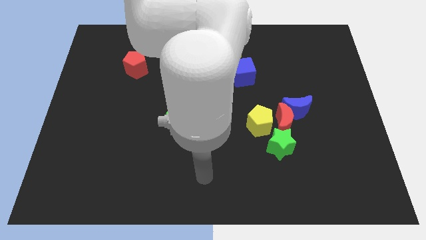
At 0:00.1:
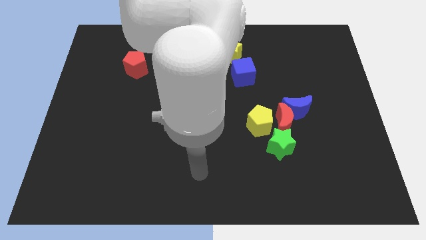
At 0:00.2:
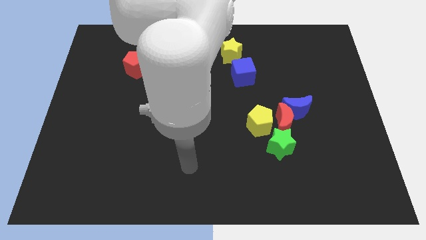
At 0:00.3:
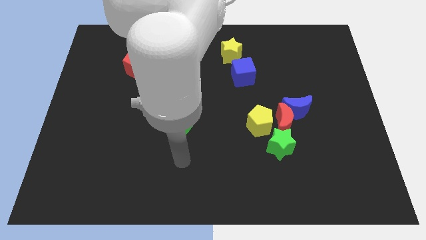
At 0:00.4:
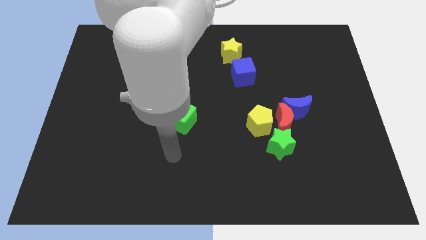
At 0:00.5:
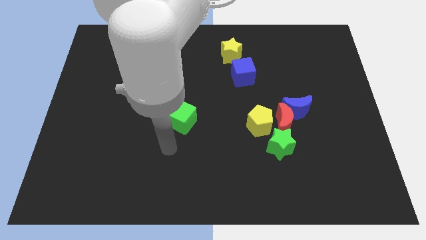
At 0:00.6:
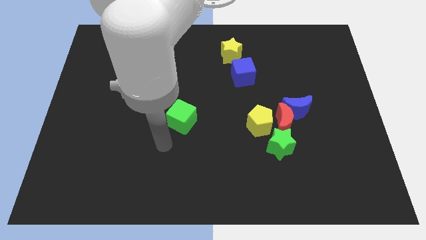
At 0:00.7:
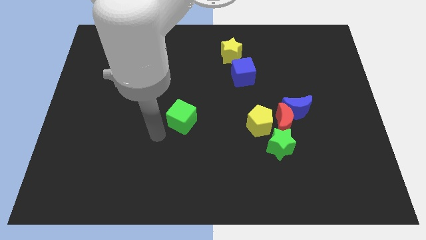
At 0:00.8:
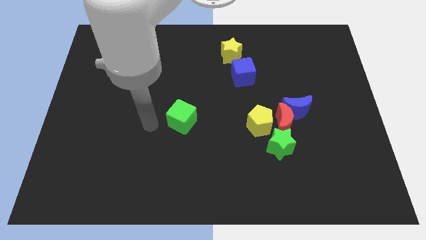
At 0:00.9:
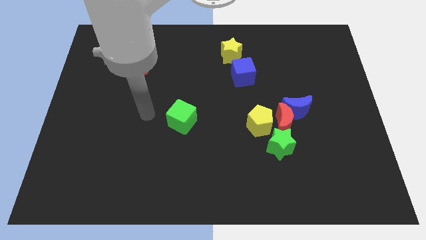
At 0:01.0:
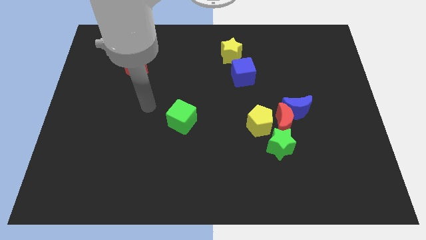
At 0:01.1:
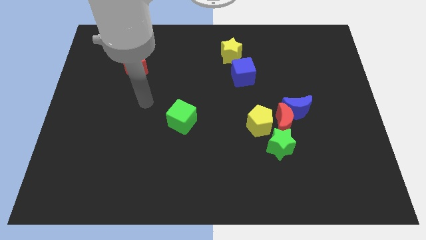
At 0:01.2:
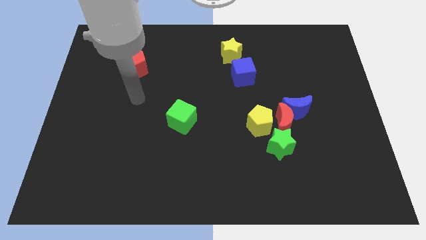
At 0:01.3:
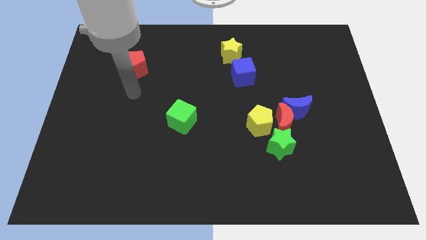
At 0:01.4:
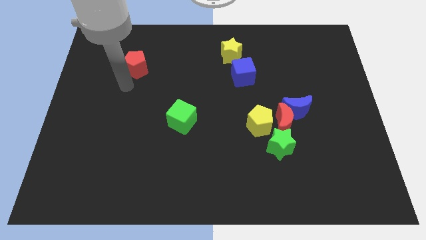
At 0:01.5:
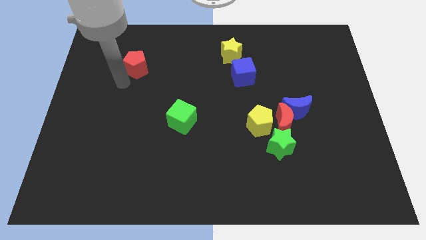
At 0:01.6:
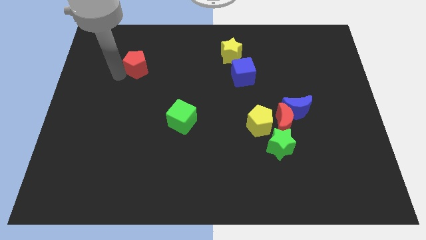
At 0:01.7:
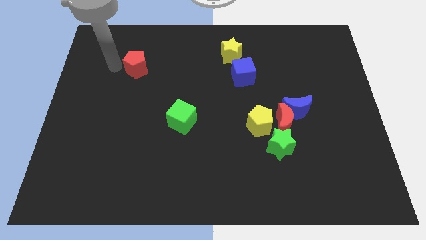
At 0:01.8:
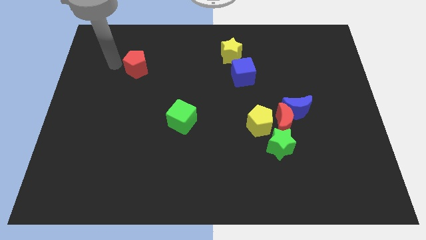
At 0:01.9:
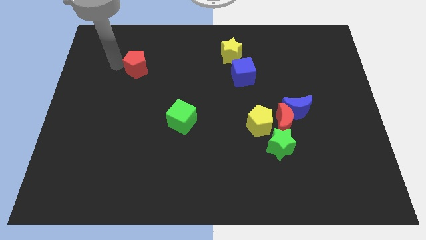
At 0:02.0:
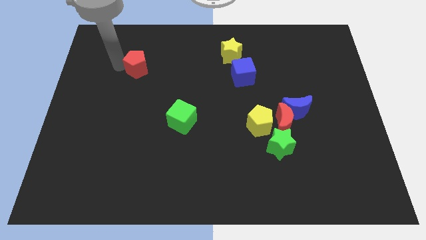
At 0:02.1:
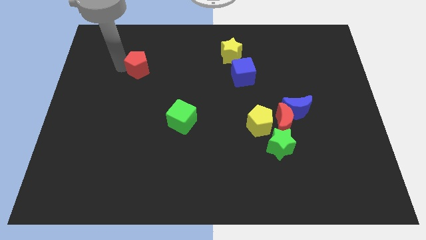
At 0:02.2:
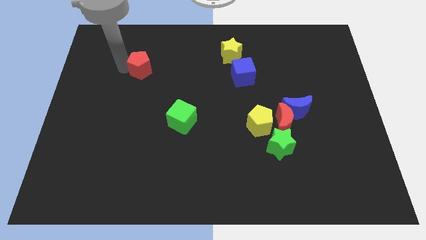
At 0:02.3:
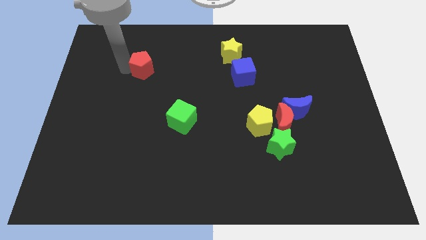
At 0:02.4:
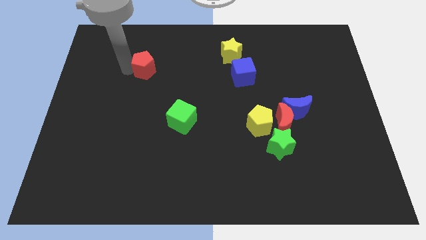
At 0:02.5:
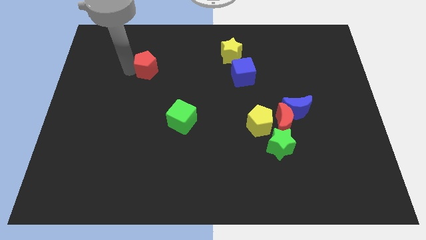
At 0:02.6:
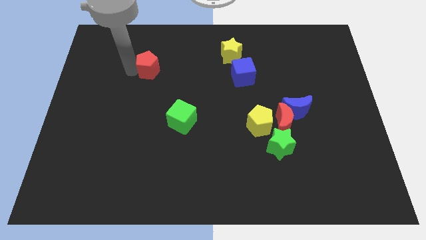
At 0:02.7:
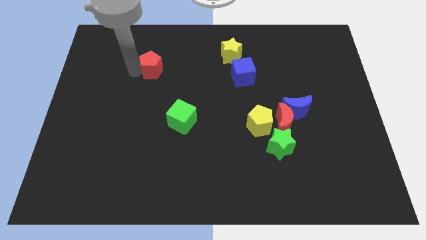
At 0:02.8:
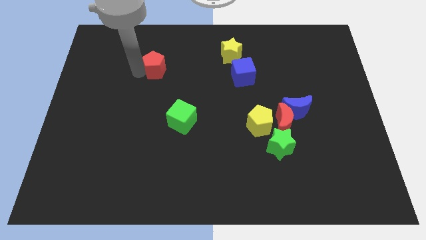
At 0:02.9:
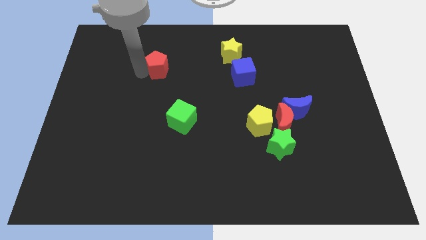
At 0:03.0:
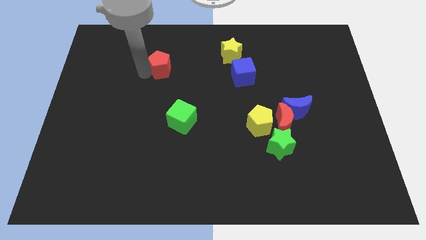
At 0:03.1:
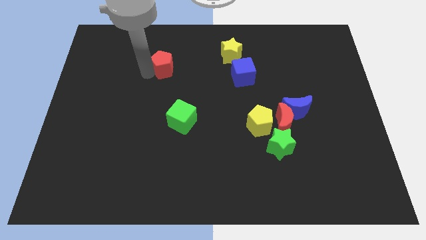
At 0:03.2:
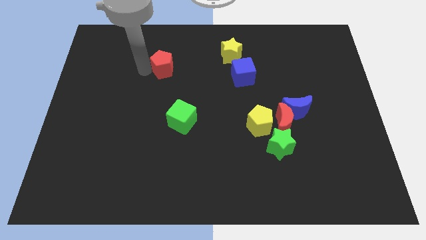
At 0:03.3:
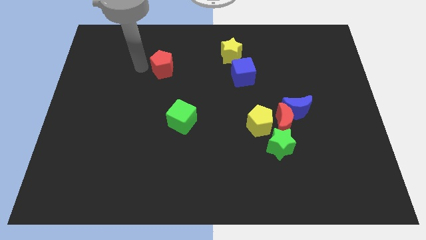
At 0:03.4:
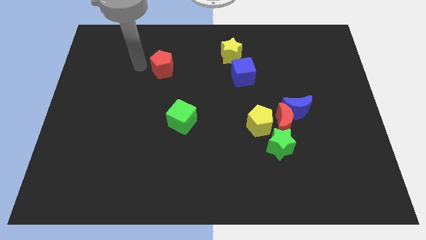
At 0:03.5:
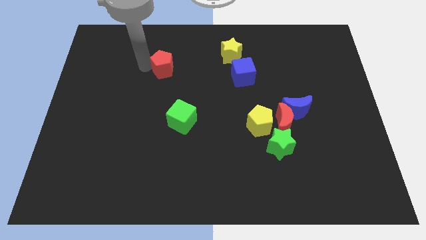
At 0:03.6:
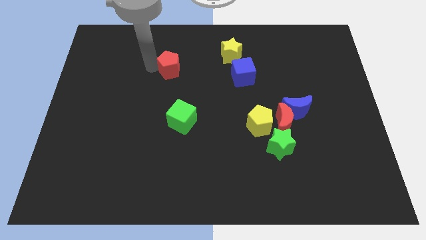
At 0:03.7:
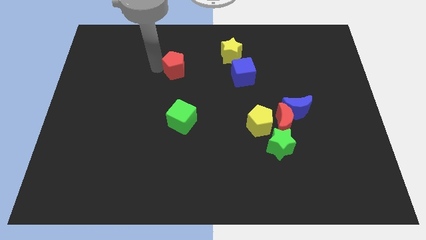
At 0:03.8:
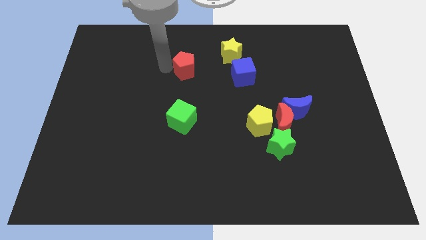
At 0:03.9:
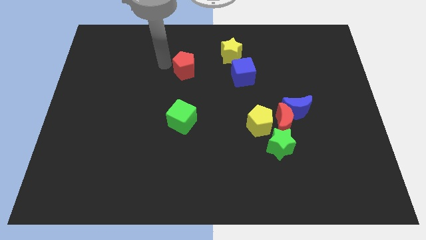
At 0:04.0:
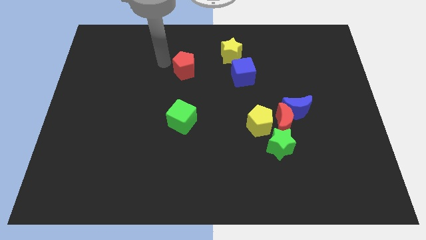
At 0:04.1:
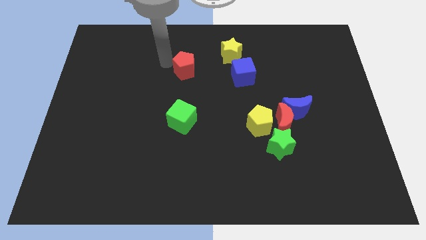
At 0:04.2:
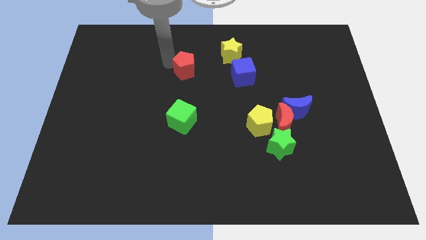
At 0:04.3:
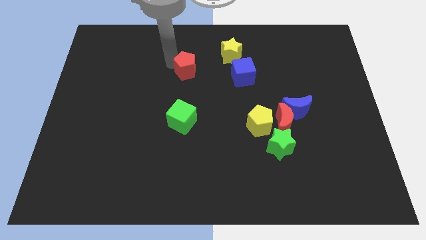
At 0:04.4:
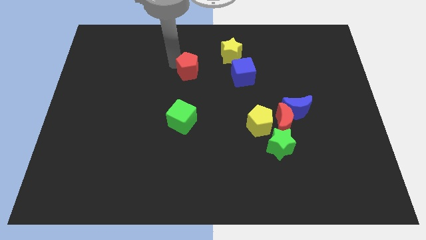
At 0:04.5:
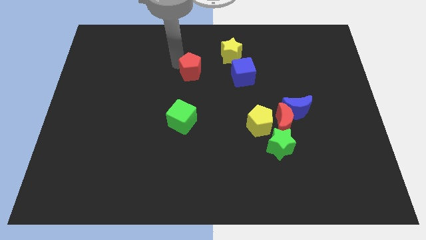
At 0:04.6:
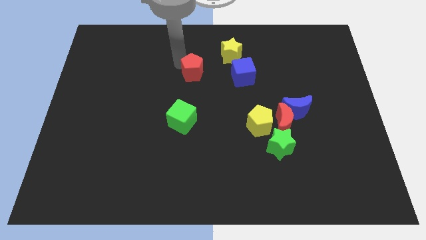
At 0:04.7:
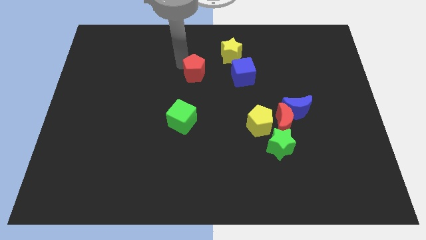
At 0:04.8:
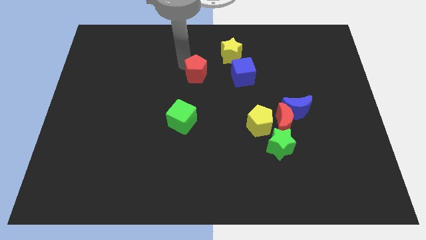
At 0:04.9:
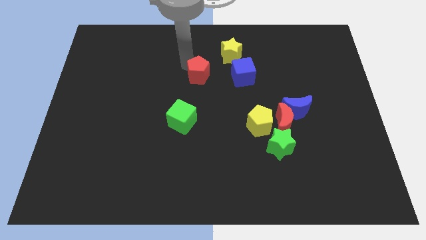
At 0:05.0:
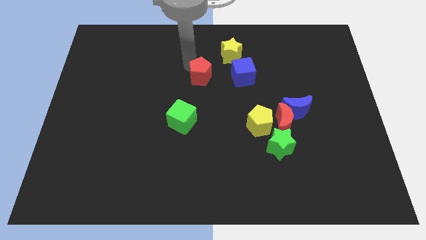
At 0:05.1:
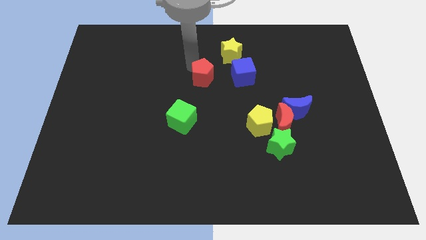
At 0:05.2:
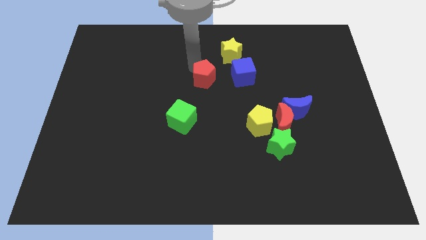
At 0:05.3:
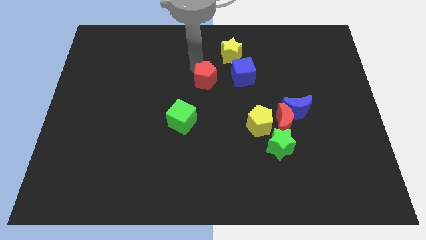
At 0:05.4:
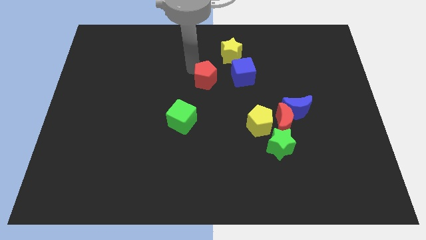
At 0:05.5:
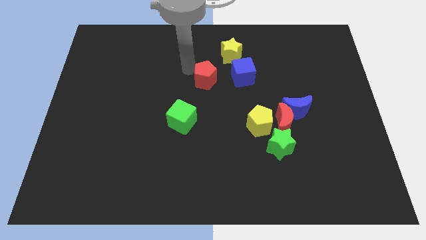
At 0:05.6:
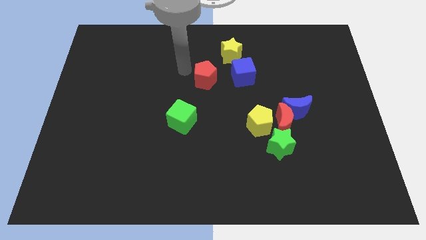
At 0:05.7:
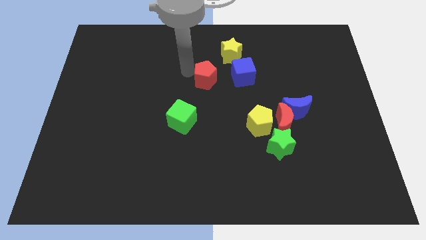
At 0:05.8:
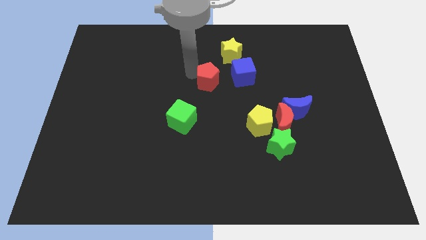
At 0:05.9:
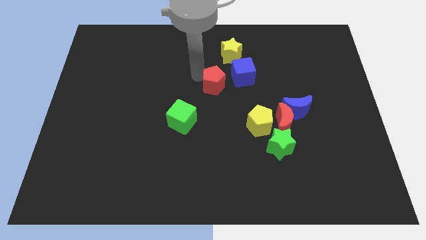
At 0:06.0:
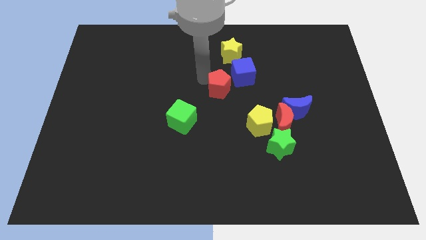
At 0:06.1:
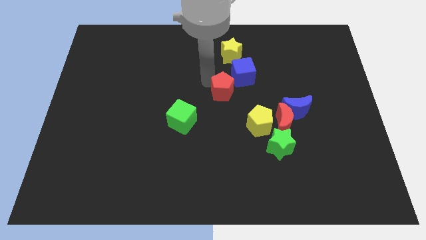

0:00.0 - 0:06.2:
move the red pentagon right

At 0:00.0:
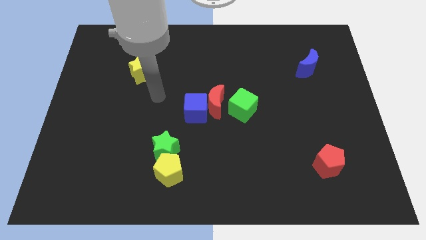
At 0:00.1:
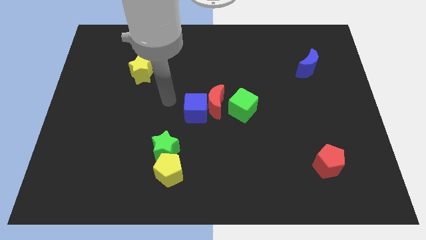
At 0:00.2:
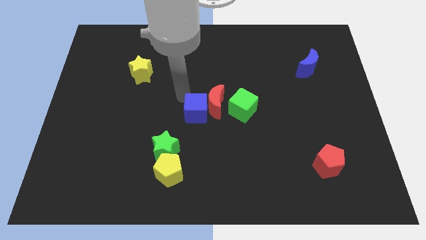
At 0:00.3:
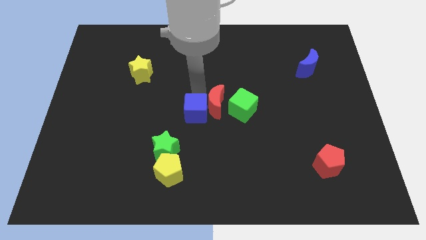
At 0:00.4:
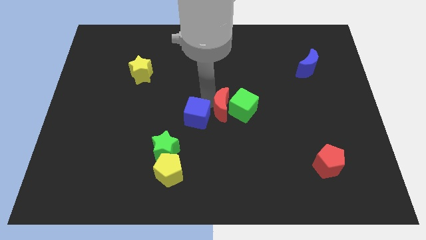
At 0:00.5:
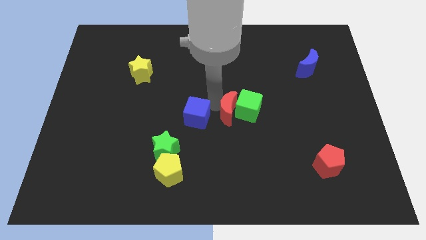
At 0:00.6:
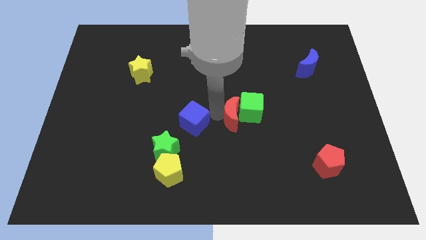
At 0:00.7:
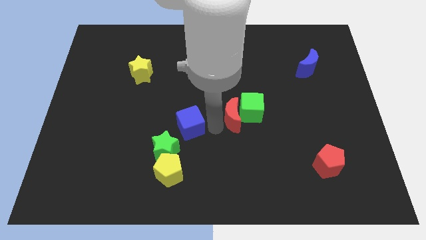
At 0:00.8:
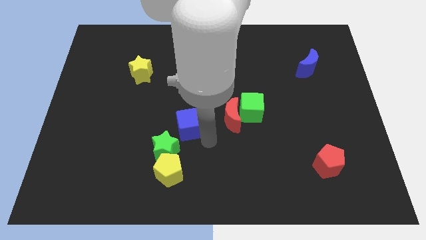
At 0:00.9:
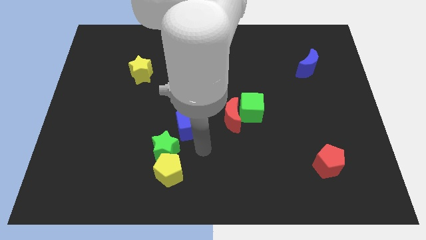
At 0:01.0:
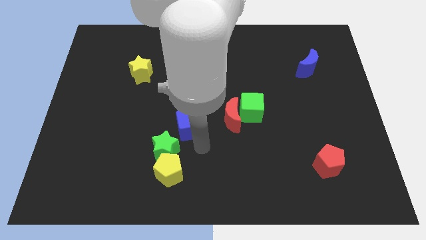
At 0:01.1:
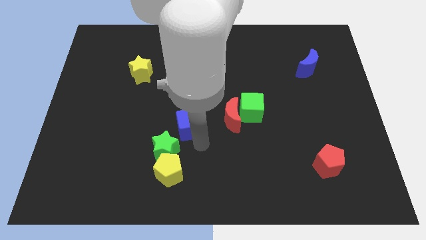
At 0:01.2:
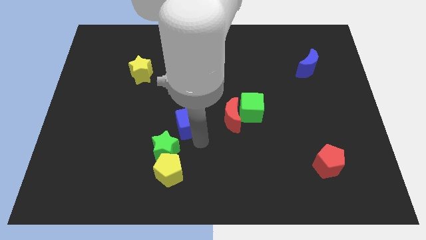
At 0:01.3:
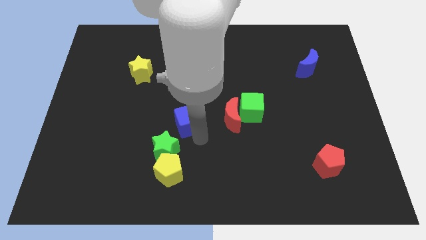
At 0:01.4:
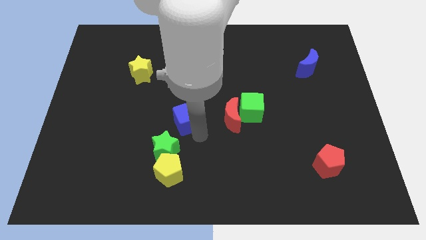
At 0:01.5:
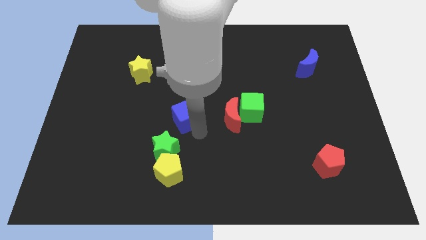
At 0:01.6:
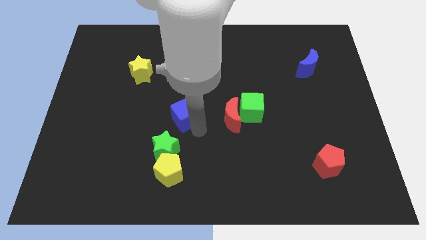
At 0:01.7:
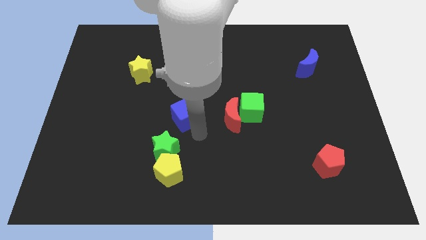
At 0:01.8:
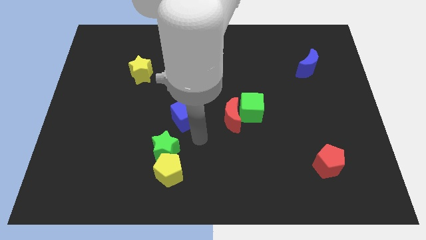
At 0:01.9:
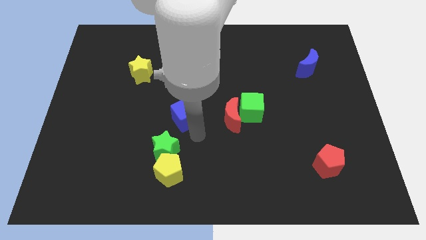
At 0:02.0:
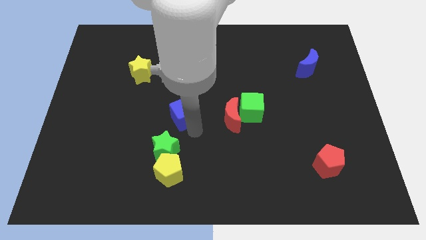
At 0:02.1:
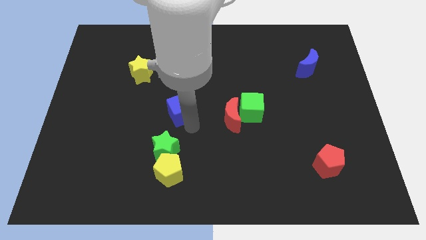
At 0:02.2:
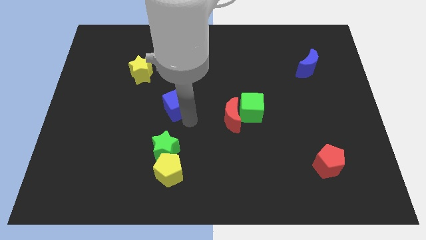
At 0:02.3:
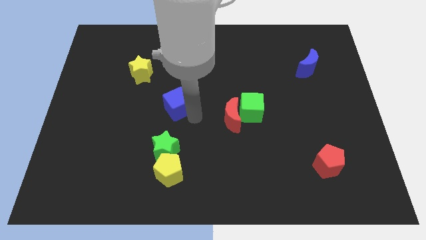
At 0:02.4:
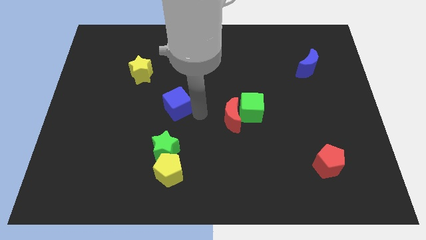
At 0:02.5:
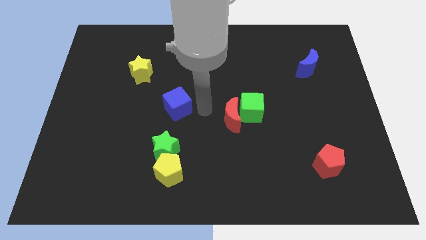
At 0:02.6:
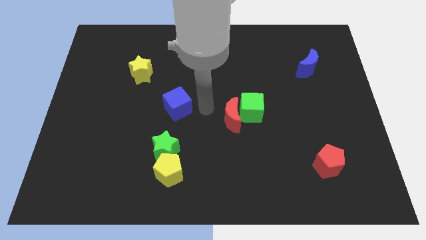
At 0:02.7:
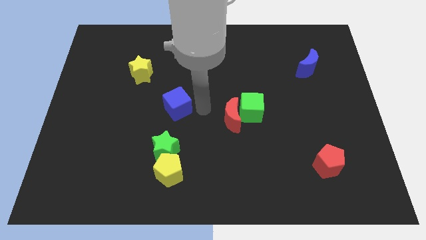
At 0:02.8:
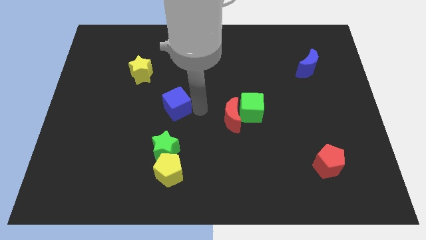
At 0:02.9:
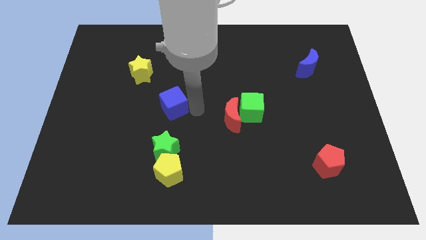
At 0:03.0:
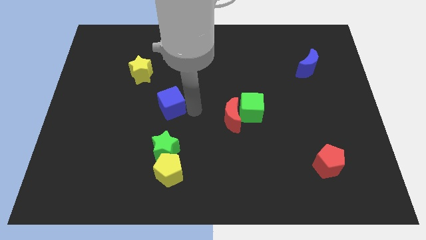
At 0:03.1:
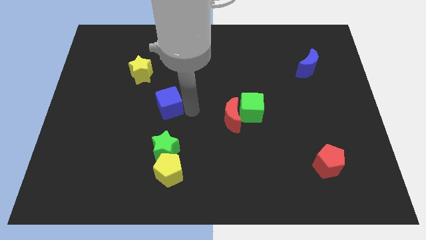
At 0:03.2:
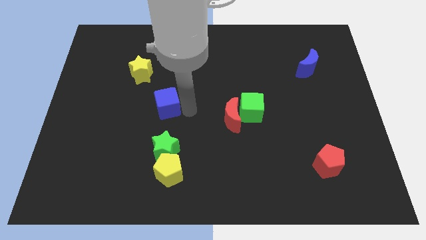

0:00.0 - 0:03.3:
push the blue cube slightly to the left
